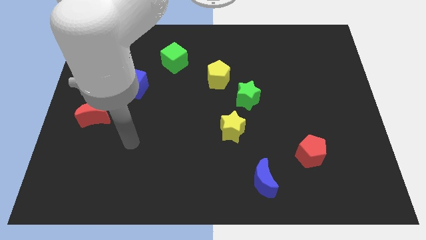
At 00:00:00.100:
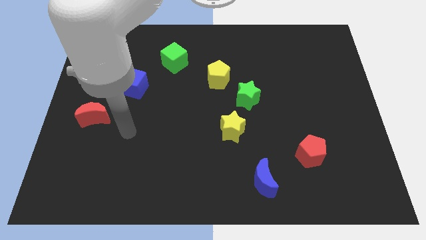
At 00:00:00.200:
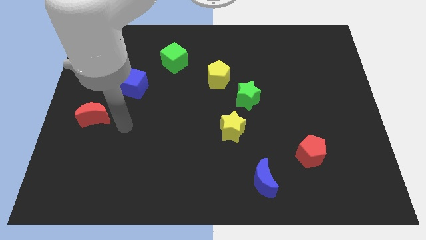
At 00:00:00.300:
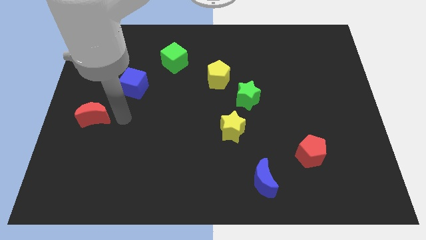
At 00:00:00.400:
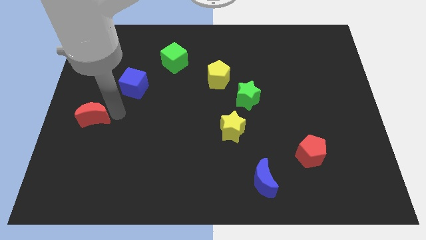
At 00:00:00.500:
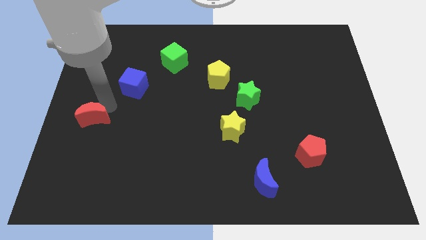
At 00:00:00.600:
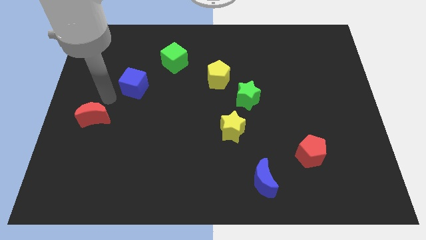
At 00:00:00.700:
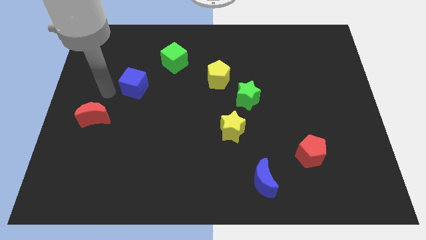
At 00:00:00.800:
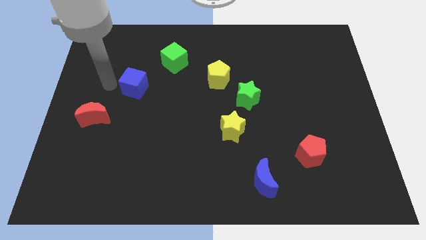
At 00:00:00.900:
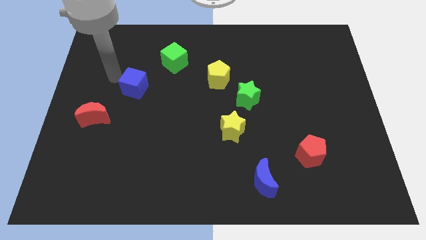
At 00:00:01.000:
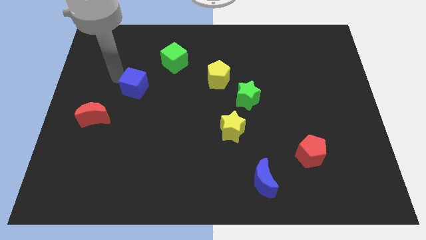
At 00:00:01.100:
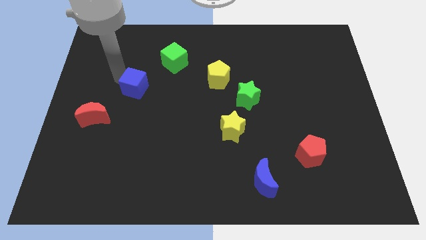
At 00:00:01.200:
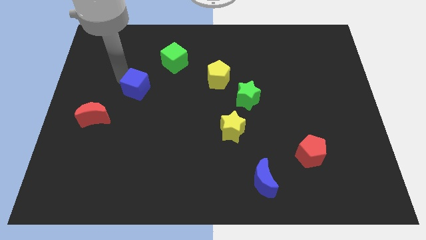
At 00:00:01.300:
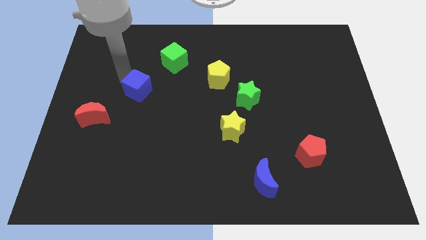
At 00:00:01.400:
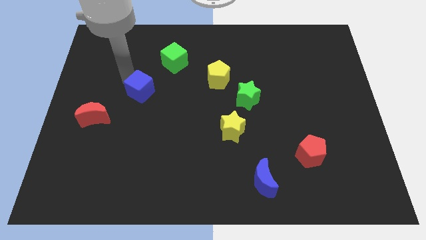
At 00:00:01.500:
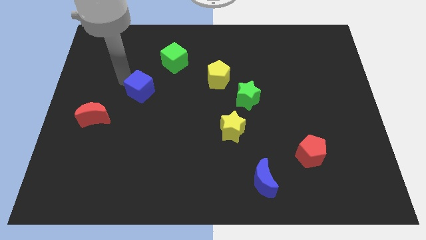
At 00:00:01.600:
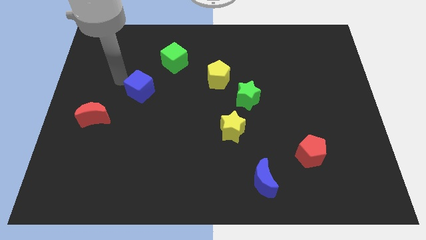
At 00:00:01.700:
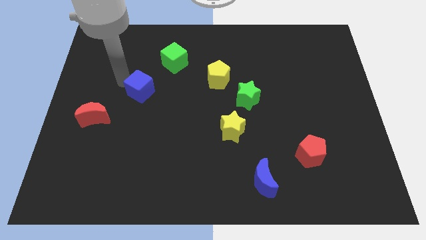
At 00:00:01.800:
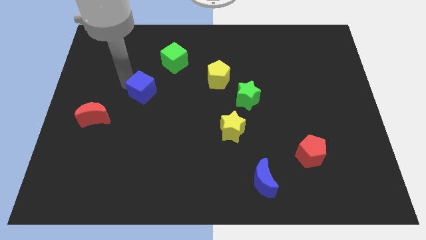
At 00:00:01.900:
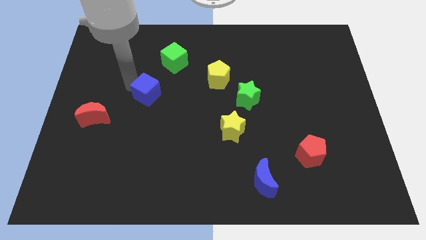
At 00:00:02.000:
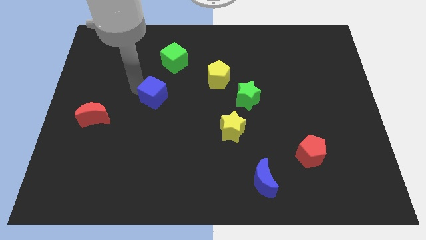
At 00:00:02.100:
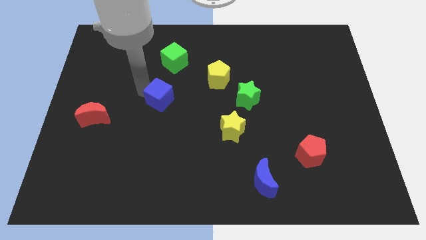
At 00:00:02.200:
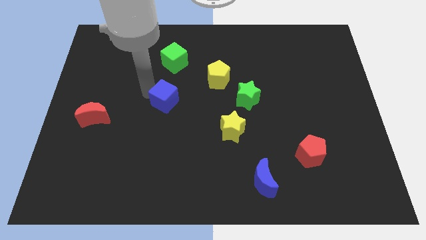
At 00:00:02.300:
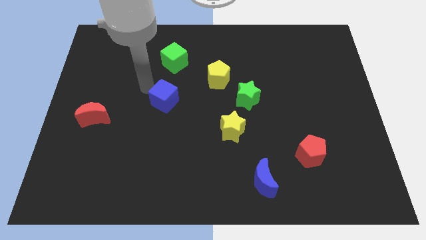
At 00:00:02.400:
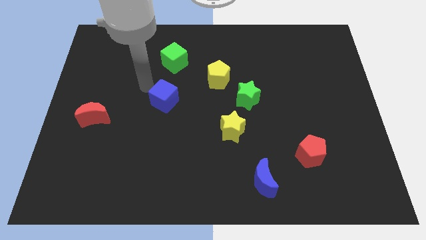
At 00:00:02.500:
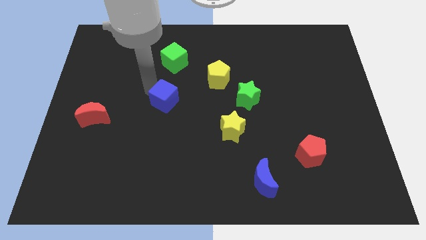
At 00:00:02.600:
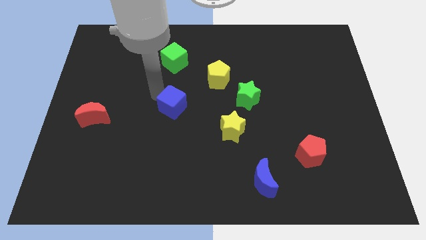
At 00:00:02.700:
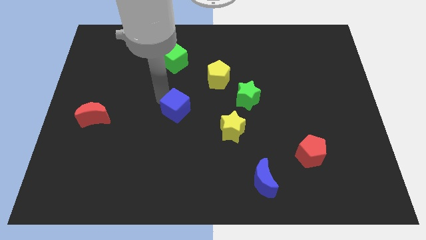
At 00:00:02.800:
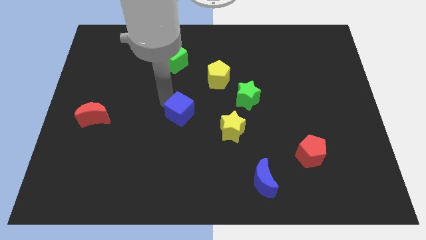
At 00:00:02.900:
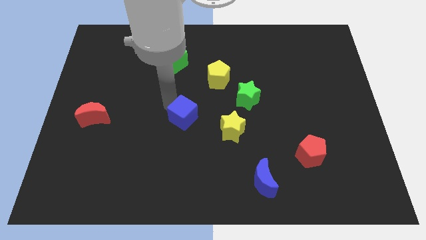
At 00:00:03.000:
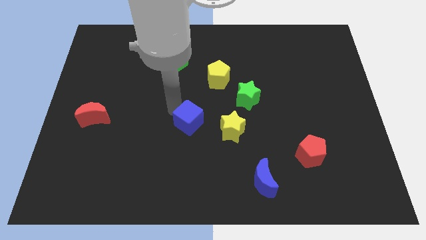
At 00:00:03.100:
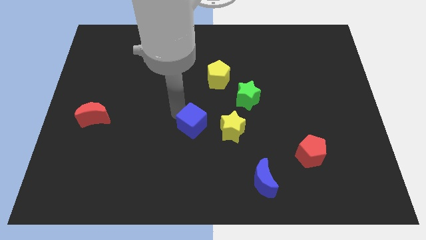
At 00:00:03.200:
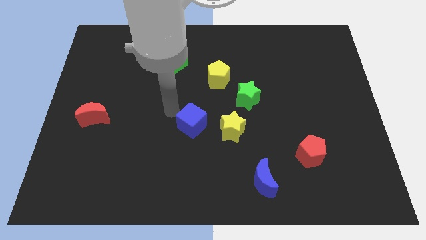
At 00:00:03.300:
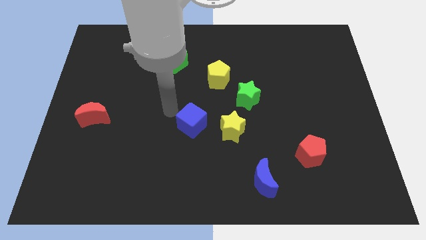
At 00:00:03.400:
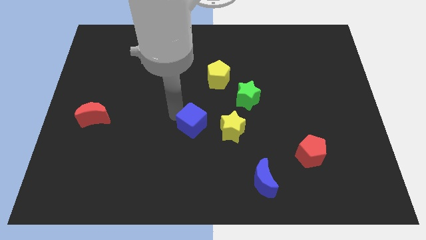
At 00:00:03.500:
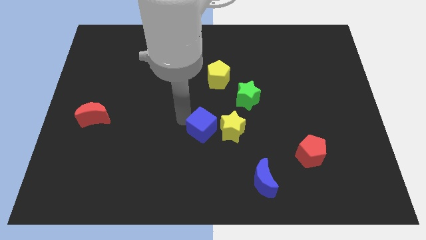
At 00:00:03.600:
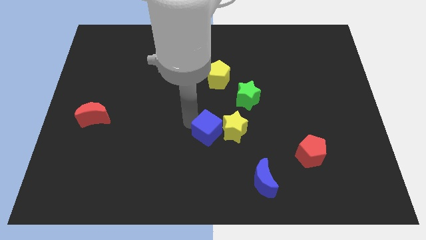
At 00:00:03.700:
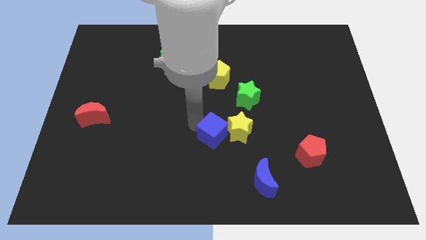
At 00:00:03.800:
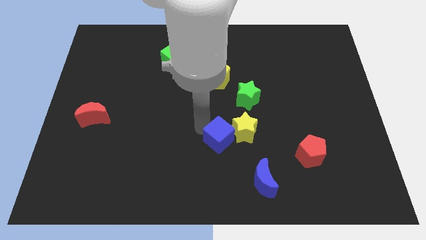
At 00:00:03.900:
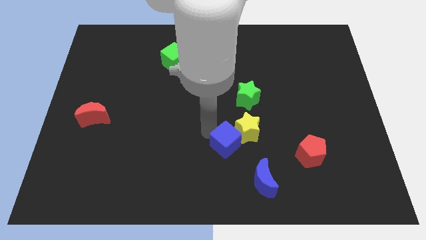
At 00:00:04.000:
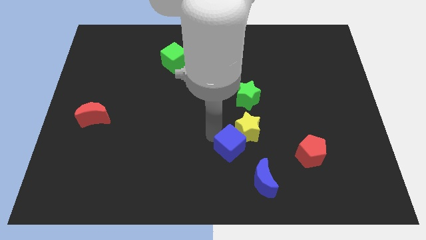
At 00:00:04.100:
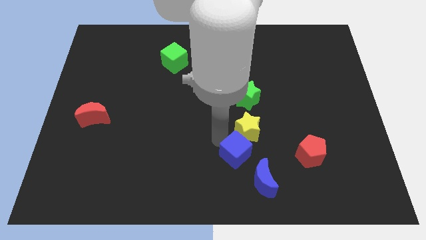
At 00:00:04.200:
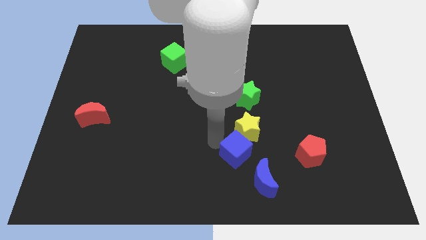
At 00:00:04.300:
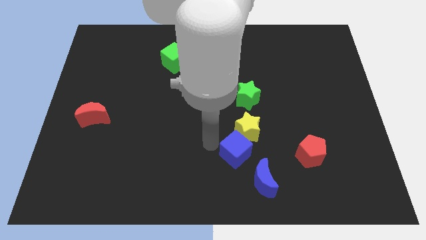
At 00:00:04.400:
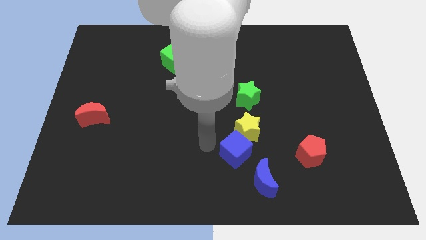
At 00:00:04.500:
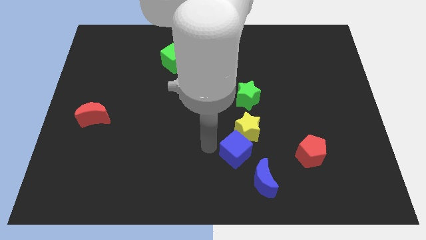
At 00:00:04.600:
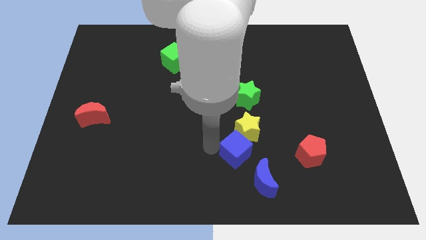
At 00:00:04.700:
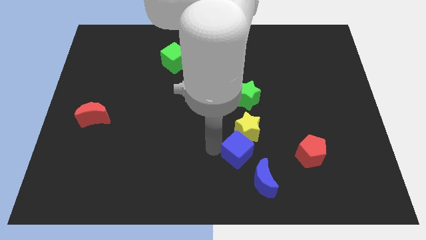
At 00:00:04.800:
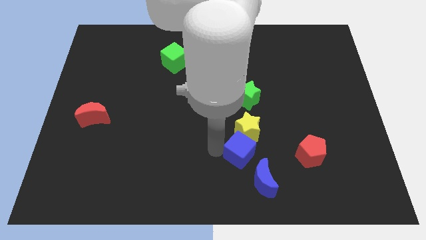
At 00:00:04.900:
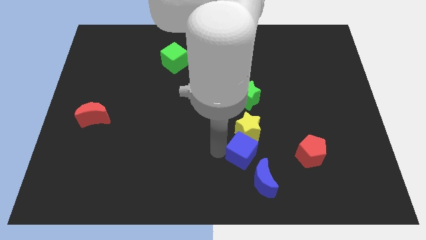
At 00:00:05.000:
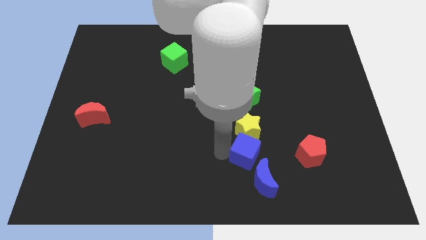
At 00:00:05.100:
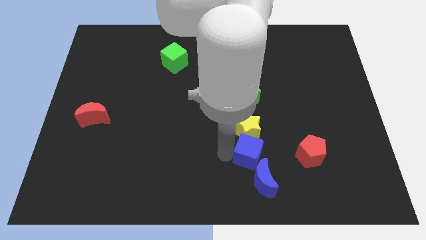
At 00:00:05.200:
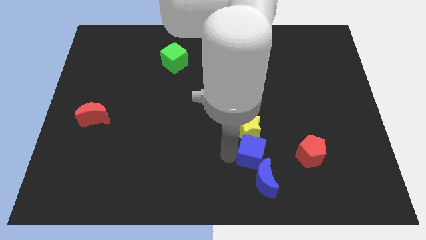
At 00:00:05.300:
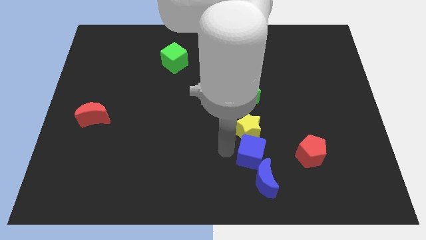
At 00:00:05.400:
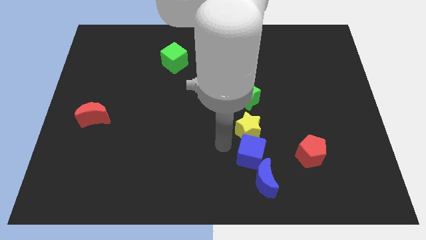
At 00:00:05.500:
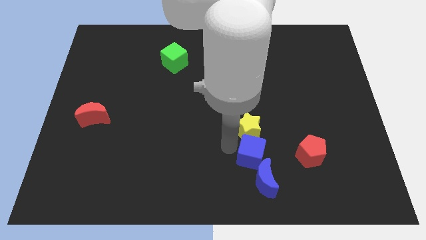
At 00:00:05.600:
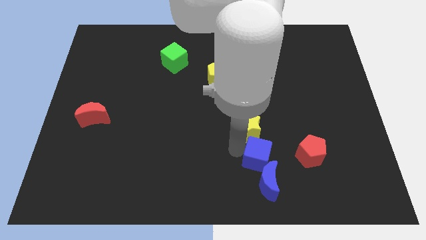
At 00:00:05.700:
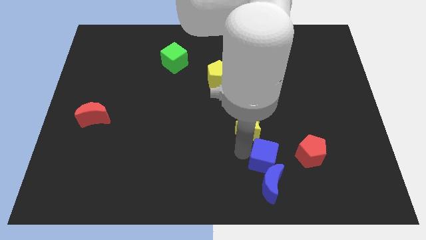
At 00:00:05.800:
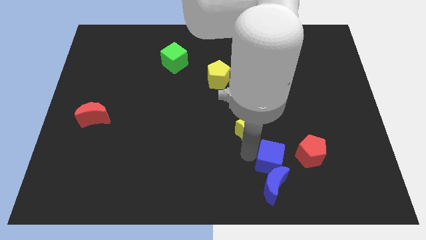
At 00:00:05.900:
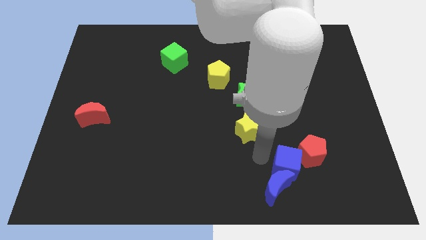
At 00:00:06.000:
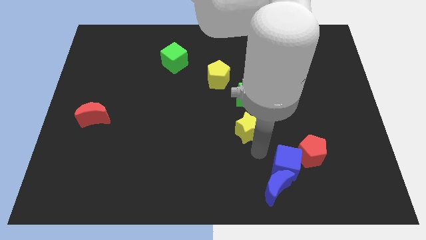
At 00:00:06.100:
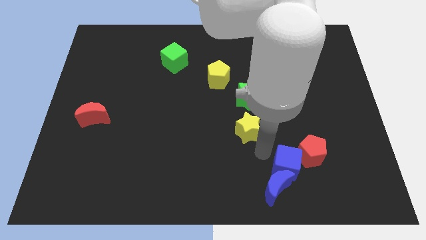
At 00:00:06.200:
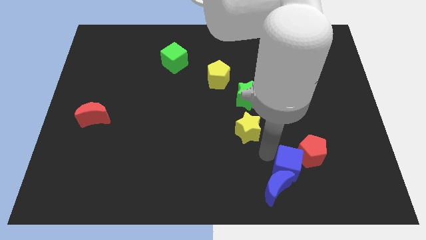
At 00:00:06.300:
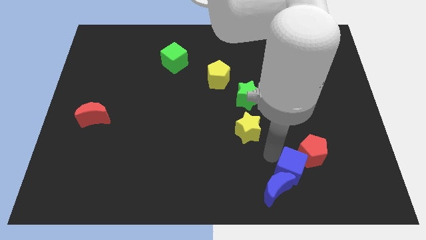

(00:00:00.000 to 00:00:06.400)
put the blue cube to the right side of the blue moon
